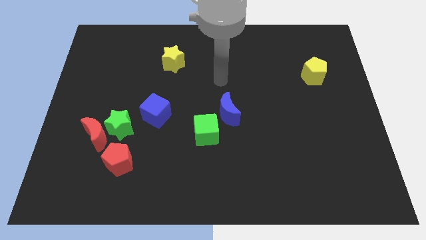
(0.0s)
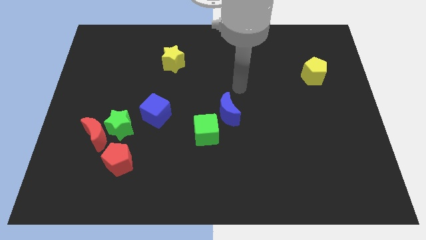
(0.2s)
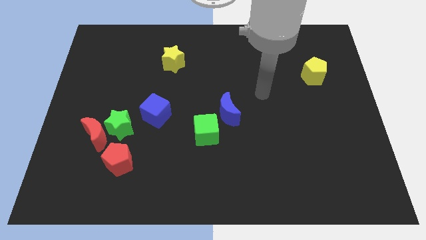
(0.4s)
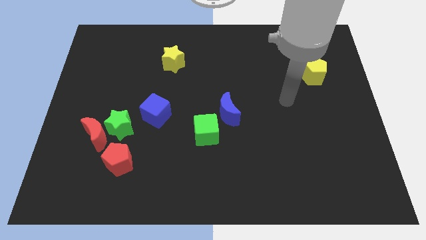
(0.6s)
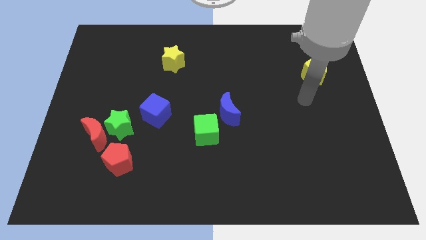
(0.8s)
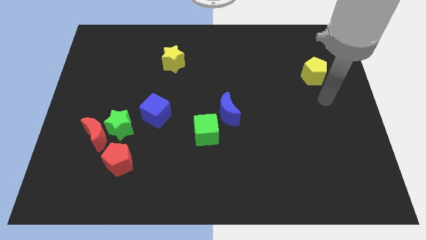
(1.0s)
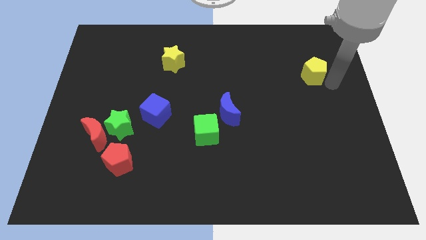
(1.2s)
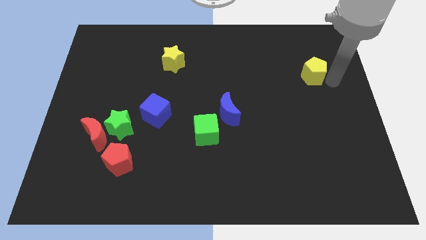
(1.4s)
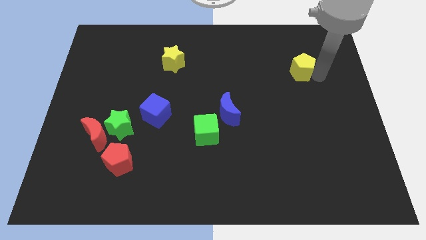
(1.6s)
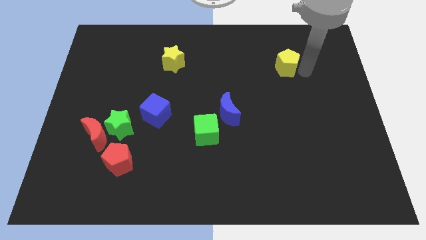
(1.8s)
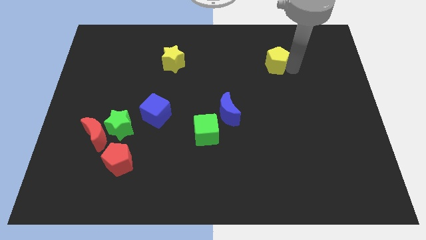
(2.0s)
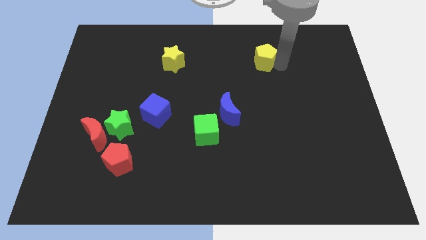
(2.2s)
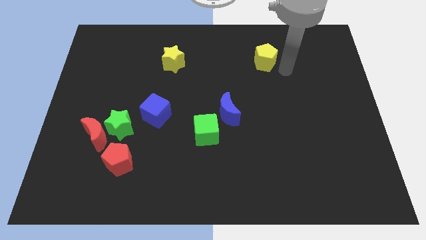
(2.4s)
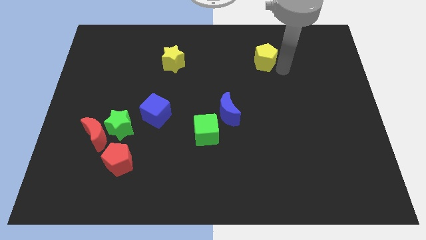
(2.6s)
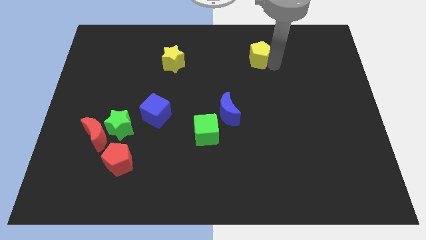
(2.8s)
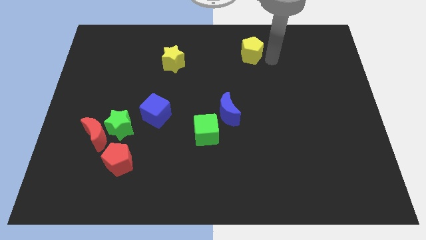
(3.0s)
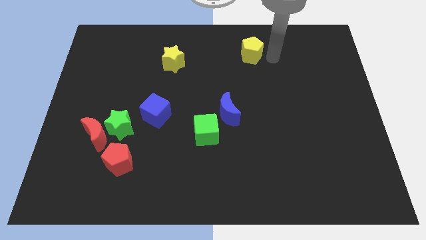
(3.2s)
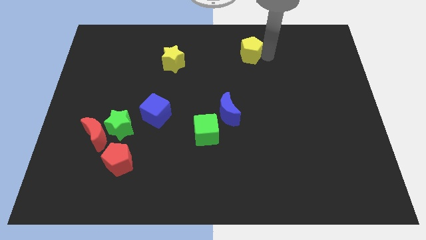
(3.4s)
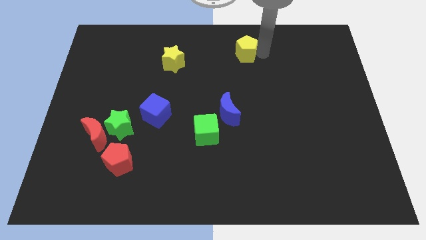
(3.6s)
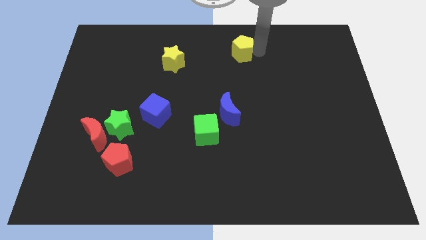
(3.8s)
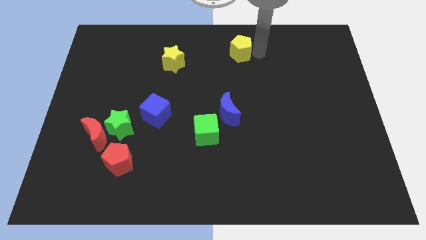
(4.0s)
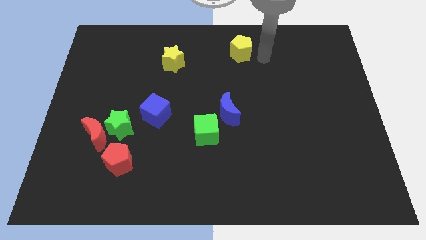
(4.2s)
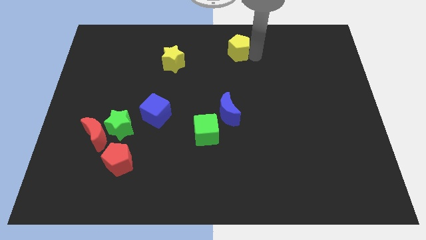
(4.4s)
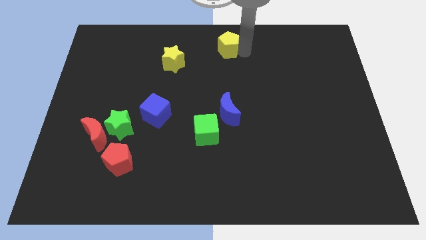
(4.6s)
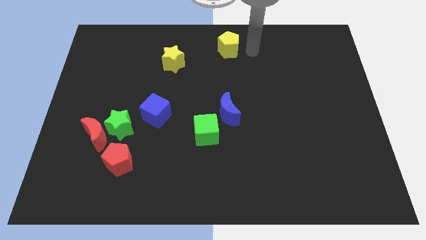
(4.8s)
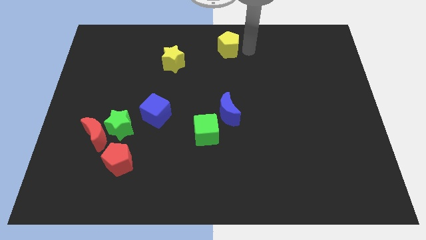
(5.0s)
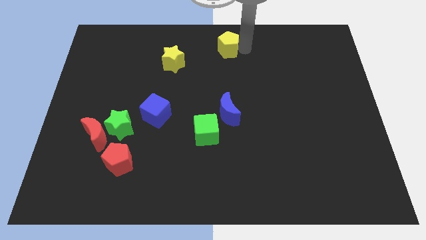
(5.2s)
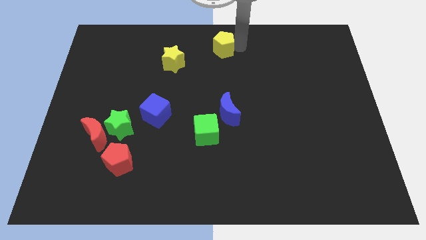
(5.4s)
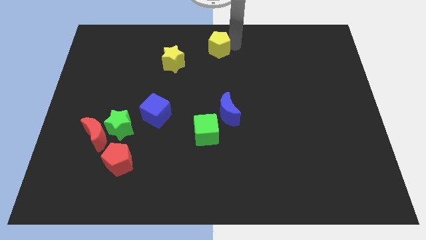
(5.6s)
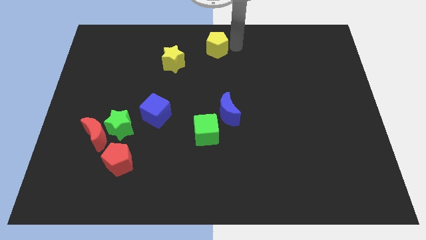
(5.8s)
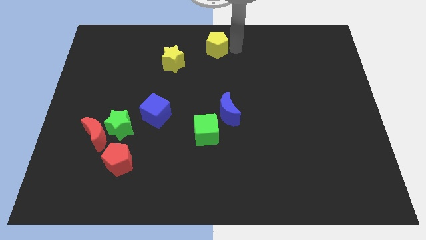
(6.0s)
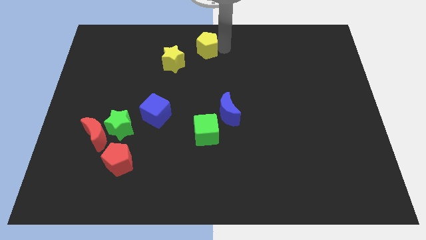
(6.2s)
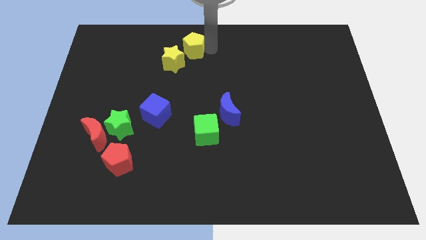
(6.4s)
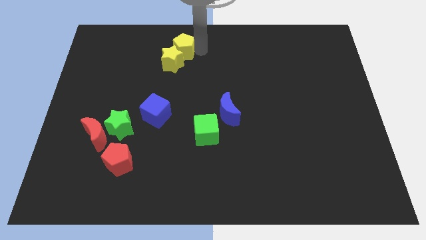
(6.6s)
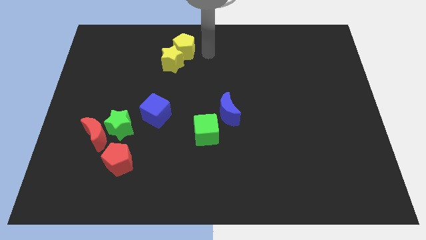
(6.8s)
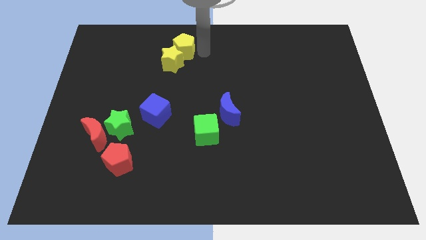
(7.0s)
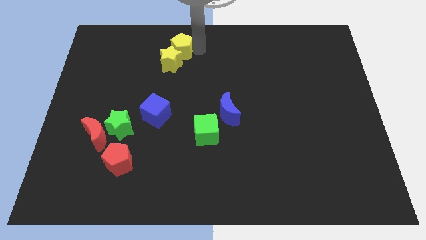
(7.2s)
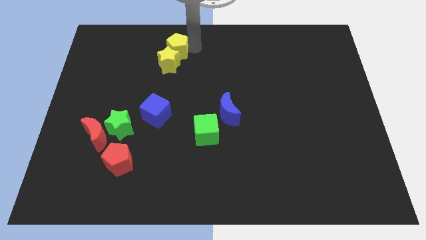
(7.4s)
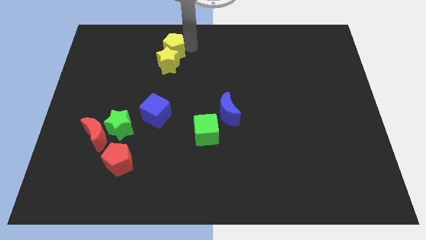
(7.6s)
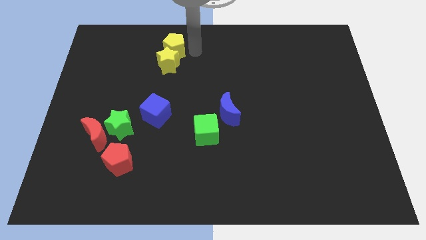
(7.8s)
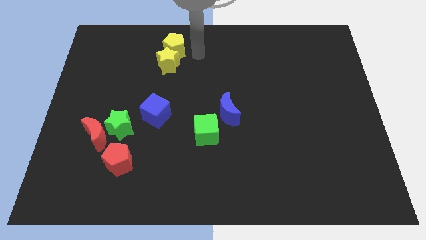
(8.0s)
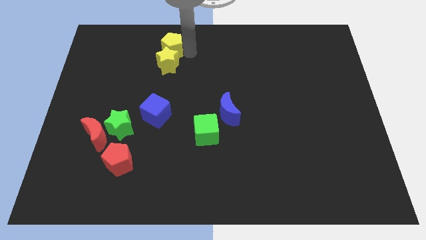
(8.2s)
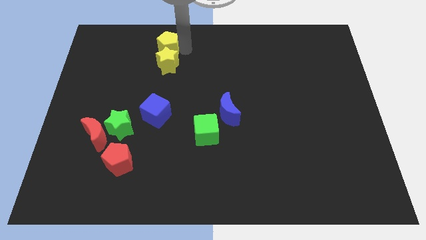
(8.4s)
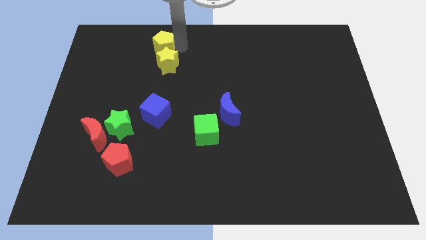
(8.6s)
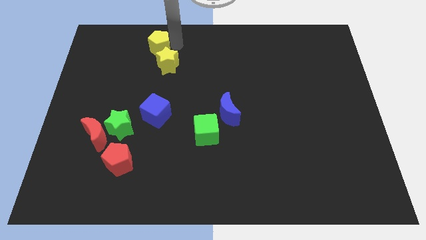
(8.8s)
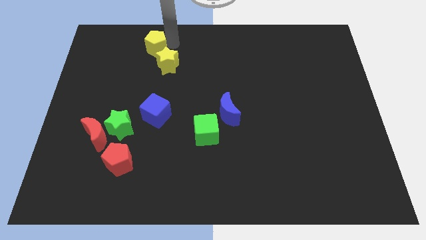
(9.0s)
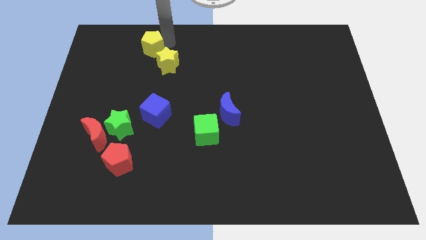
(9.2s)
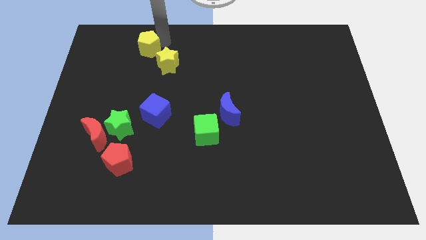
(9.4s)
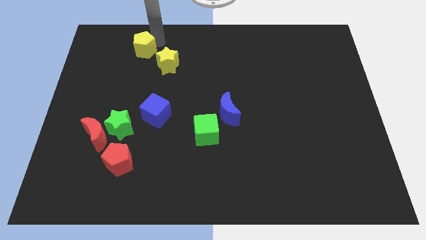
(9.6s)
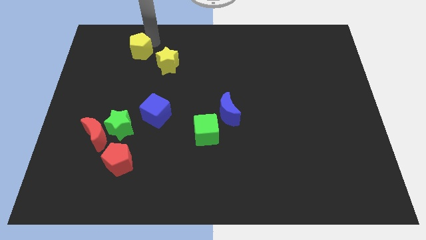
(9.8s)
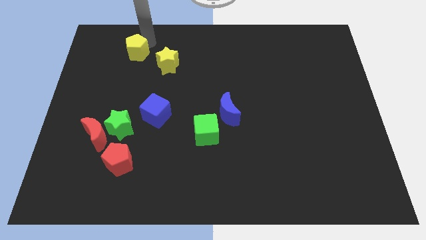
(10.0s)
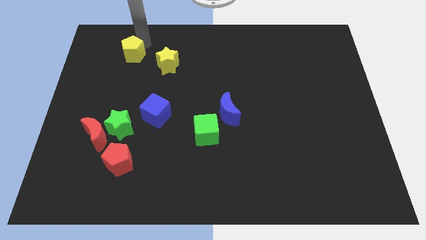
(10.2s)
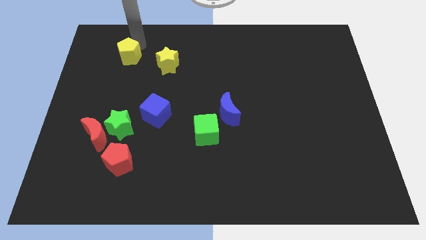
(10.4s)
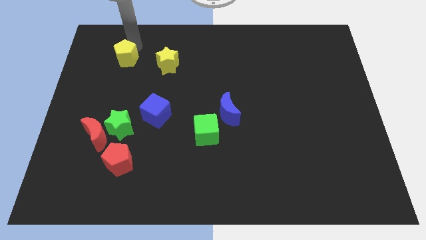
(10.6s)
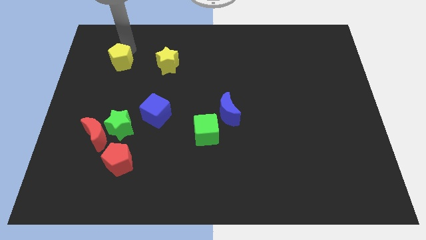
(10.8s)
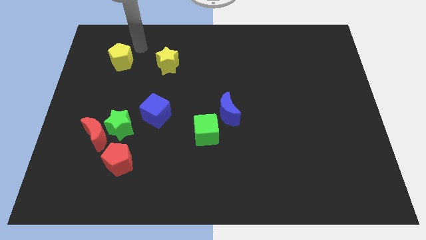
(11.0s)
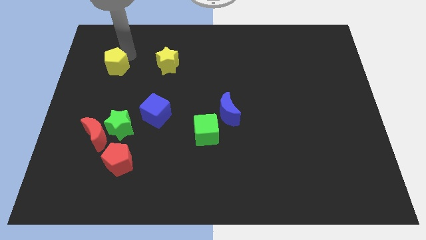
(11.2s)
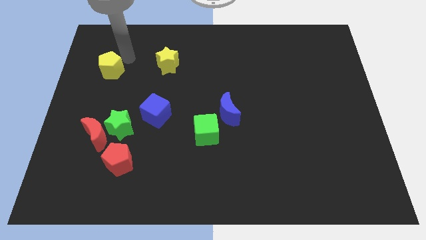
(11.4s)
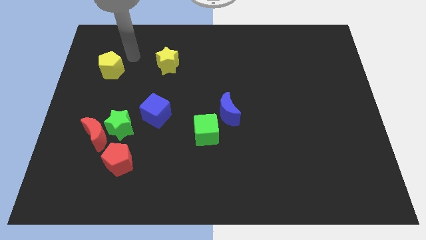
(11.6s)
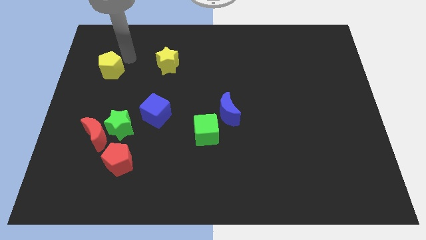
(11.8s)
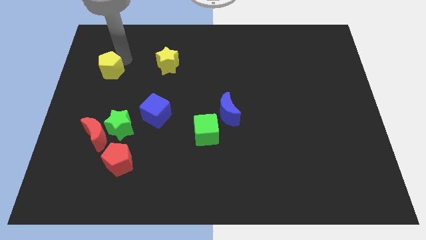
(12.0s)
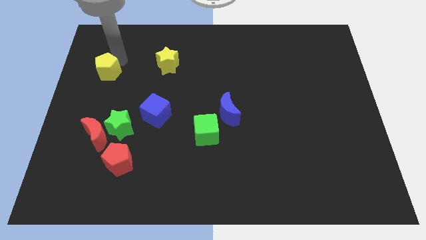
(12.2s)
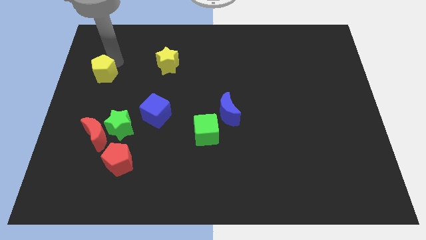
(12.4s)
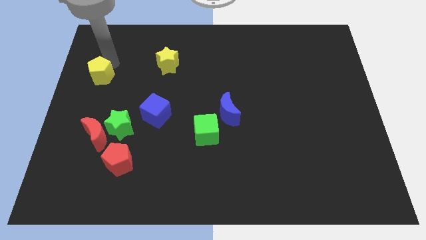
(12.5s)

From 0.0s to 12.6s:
put the yellow pentagon to the left side
